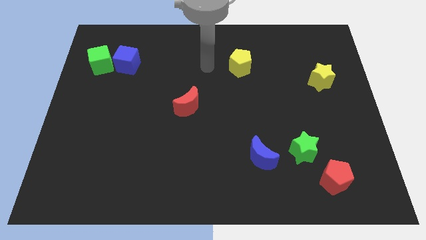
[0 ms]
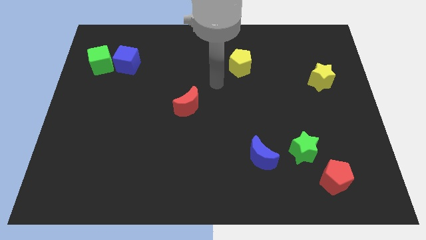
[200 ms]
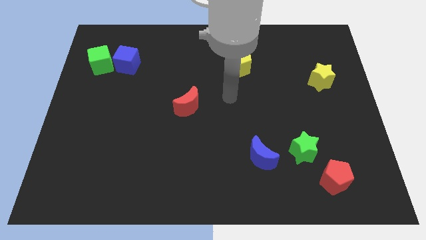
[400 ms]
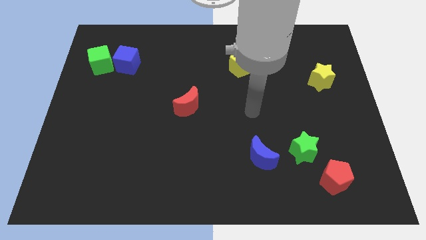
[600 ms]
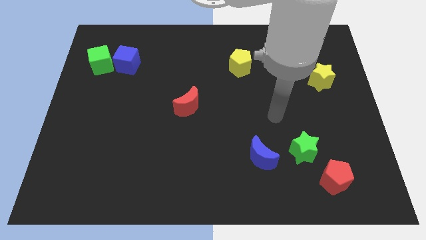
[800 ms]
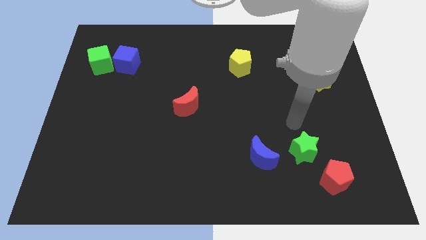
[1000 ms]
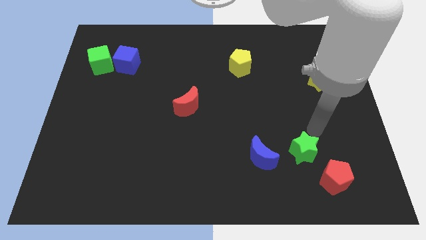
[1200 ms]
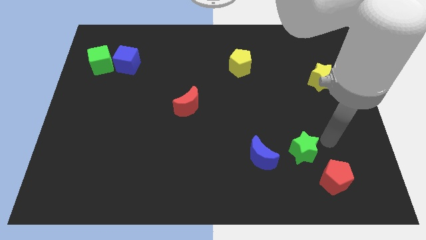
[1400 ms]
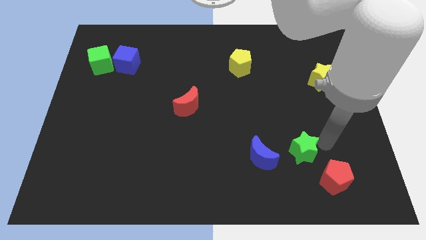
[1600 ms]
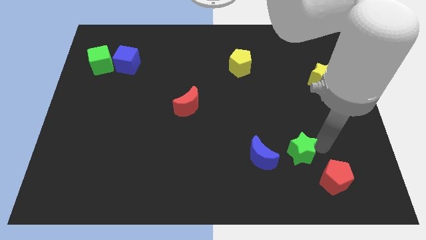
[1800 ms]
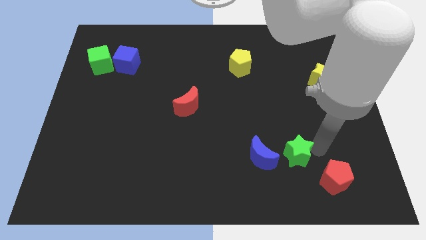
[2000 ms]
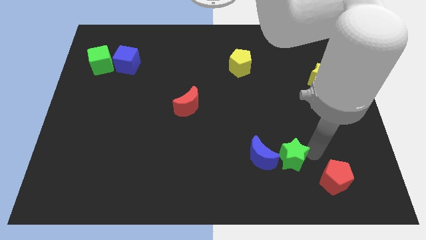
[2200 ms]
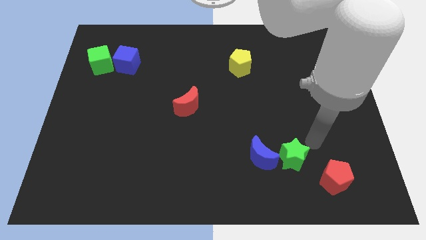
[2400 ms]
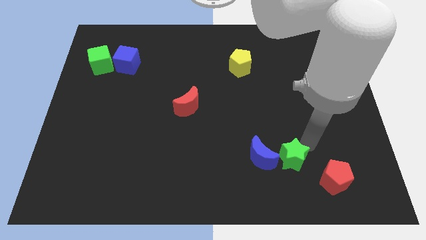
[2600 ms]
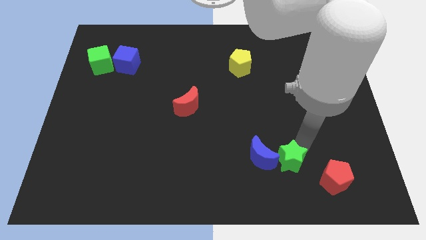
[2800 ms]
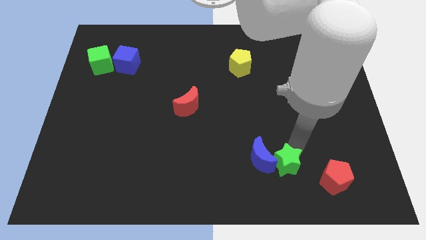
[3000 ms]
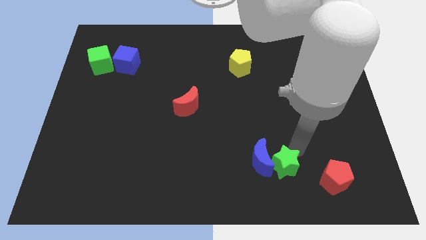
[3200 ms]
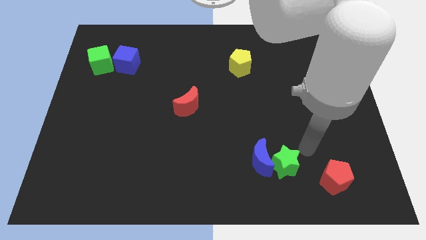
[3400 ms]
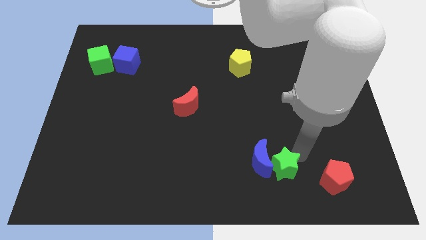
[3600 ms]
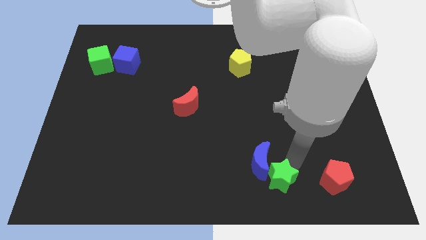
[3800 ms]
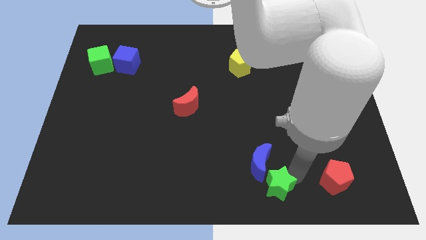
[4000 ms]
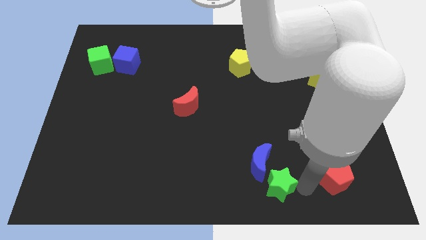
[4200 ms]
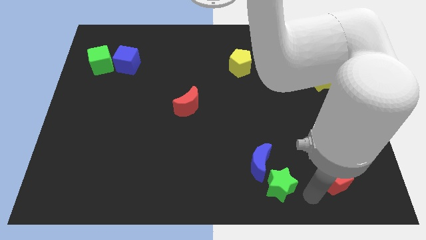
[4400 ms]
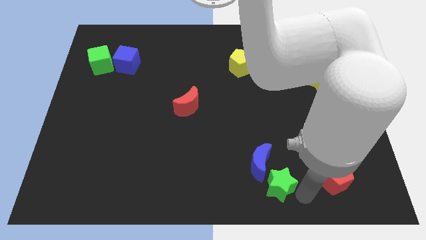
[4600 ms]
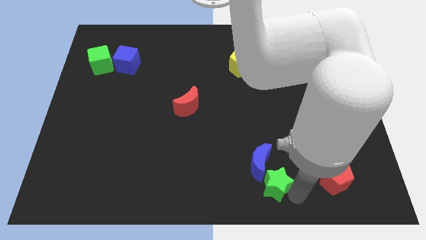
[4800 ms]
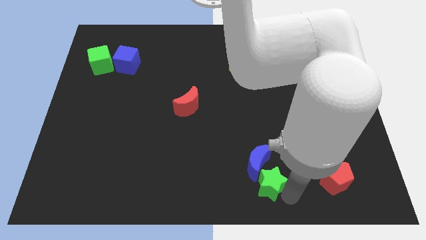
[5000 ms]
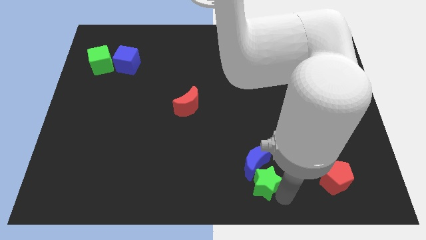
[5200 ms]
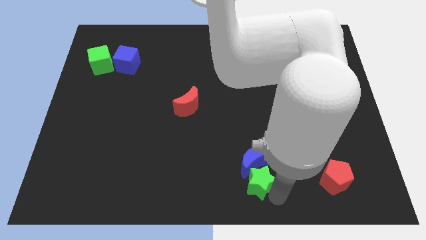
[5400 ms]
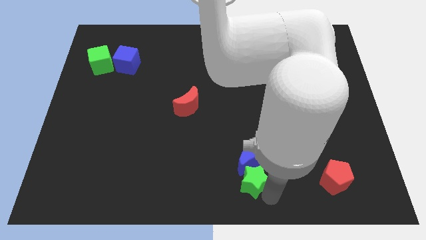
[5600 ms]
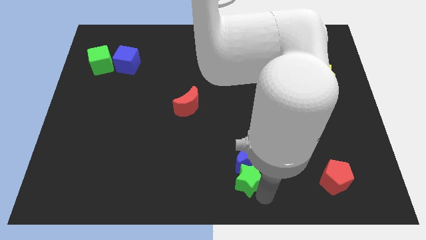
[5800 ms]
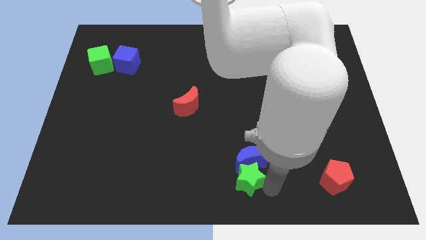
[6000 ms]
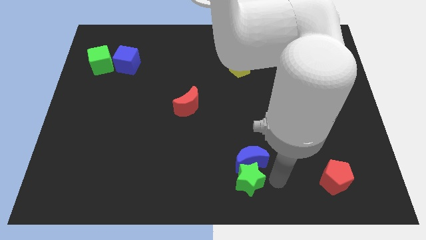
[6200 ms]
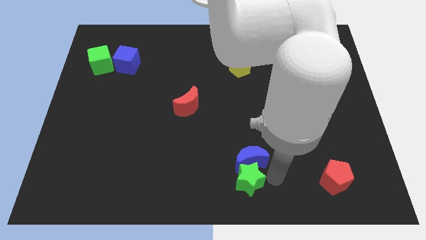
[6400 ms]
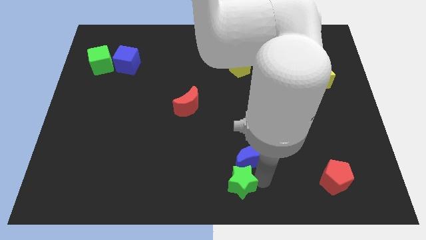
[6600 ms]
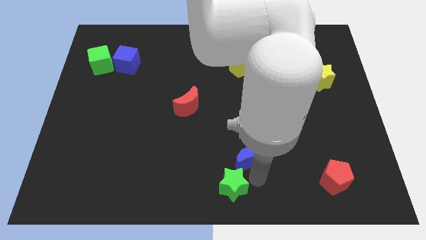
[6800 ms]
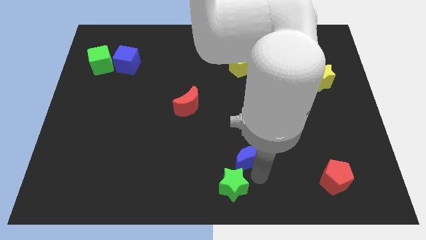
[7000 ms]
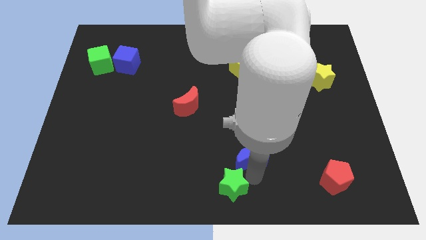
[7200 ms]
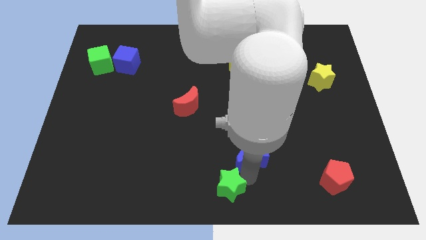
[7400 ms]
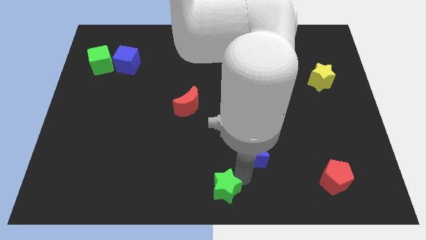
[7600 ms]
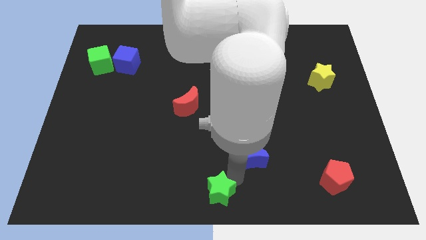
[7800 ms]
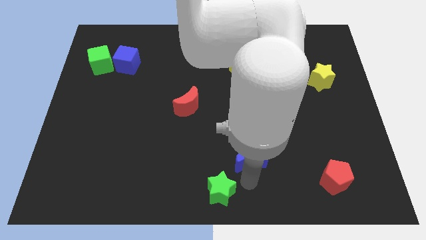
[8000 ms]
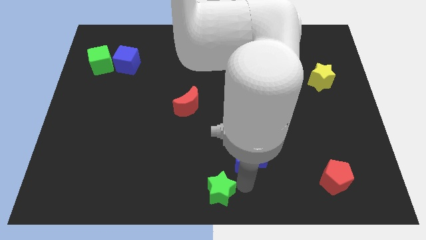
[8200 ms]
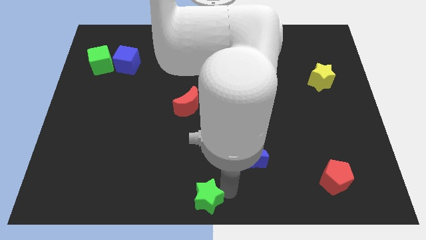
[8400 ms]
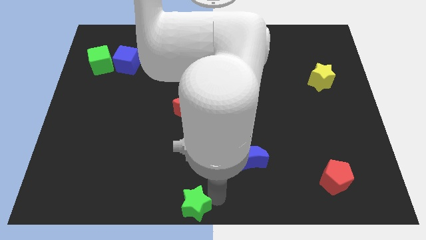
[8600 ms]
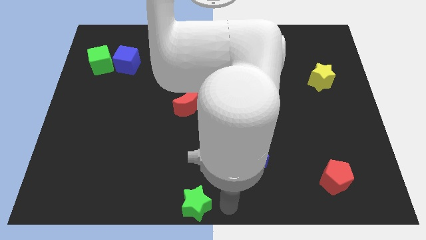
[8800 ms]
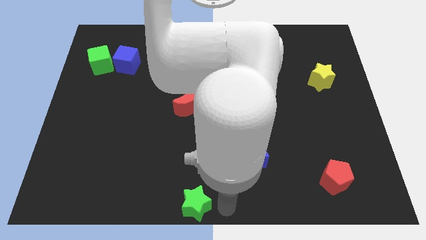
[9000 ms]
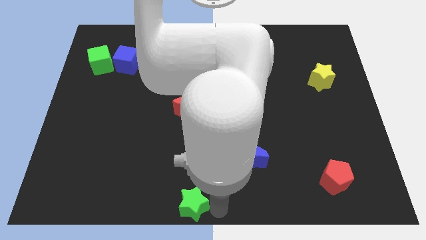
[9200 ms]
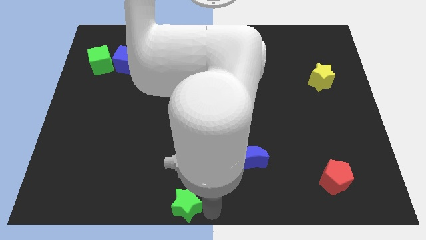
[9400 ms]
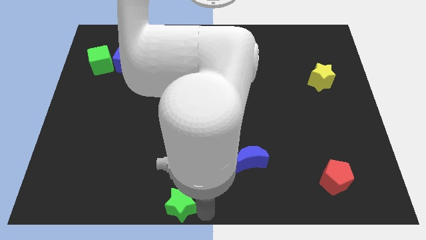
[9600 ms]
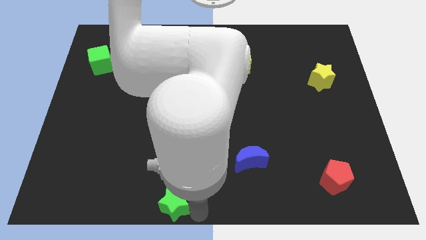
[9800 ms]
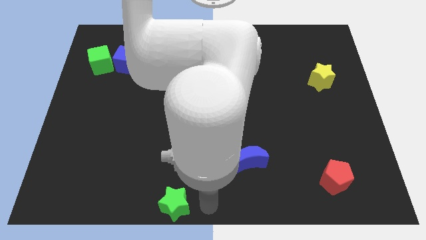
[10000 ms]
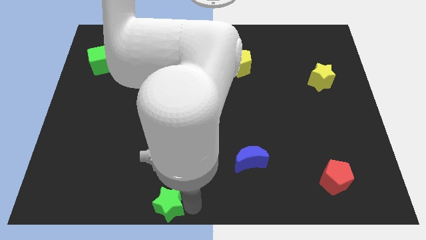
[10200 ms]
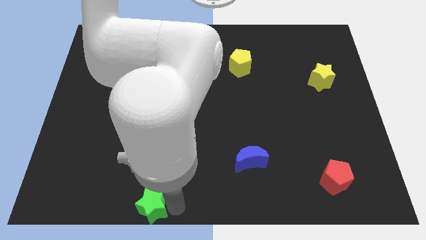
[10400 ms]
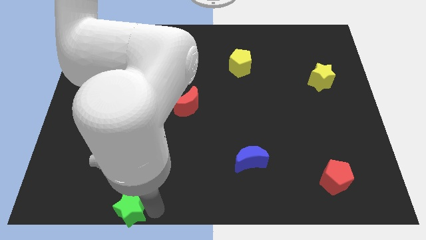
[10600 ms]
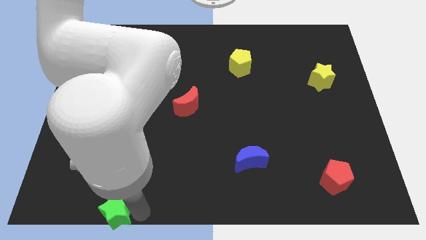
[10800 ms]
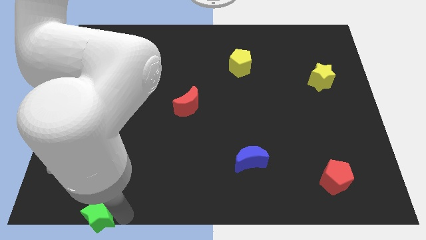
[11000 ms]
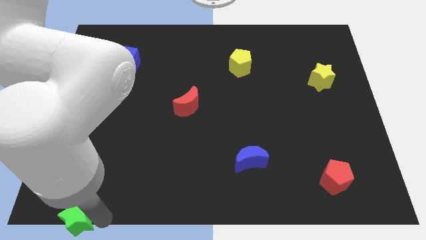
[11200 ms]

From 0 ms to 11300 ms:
slide the green star to the lower left corner

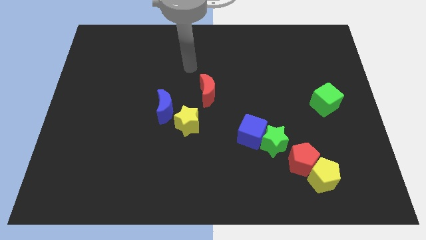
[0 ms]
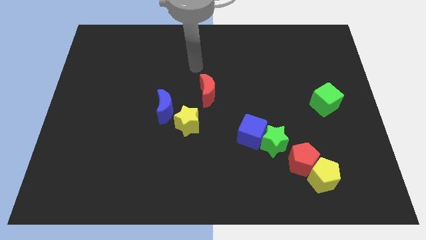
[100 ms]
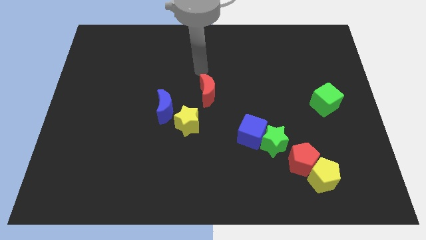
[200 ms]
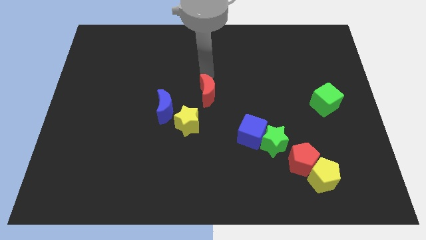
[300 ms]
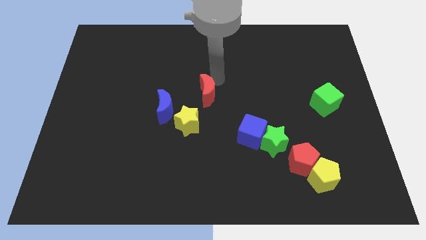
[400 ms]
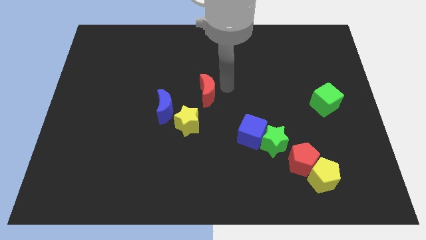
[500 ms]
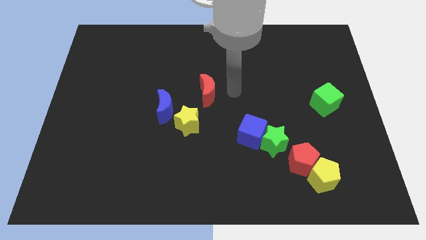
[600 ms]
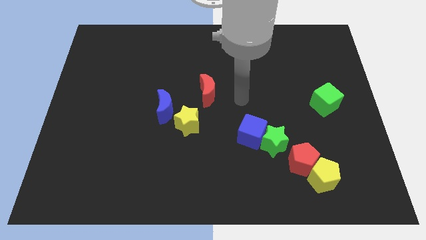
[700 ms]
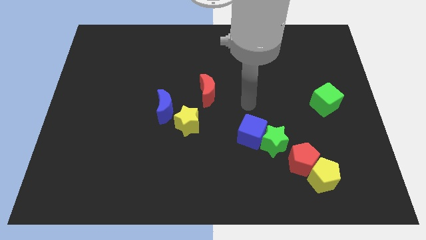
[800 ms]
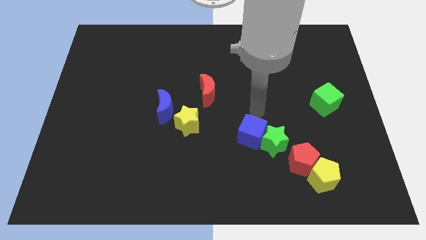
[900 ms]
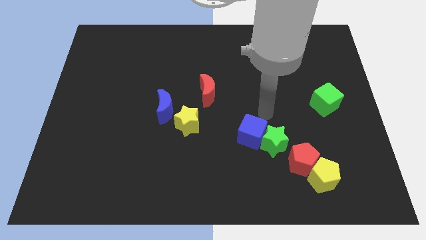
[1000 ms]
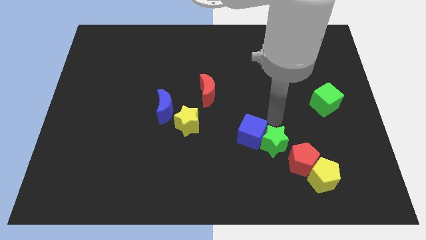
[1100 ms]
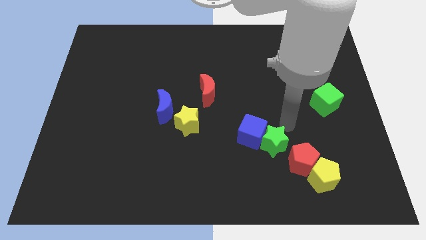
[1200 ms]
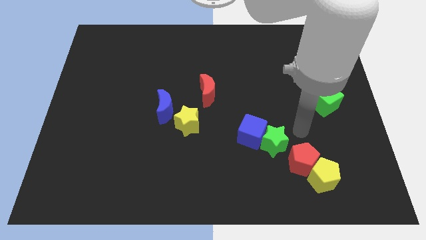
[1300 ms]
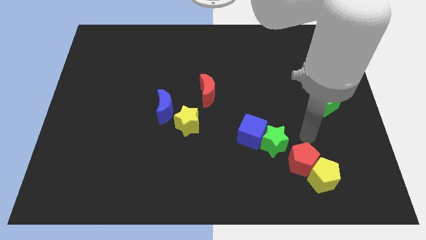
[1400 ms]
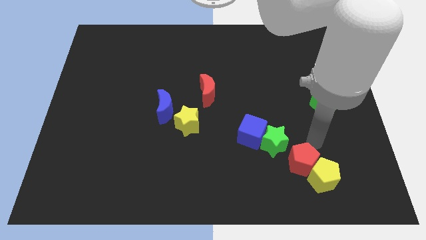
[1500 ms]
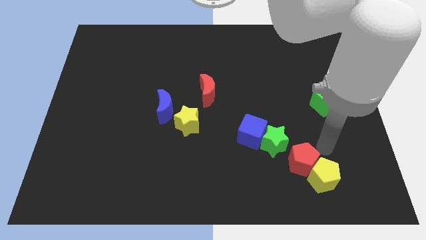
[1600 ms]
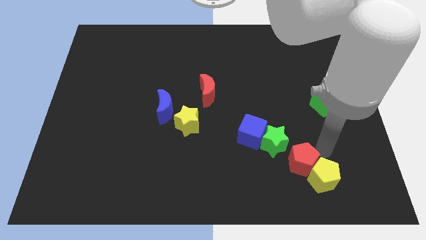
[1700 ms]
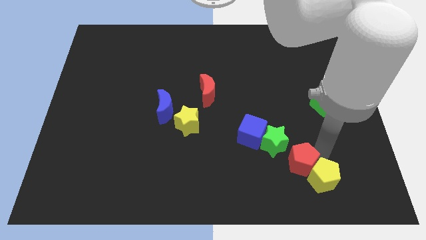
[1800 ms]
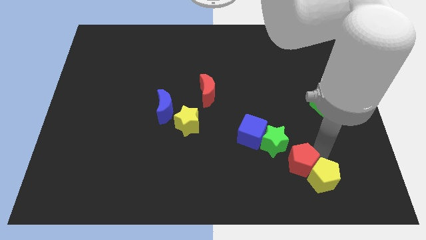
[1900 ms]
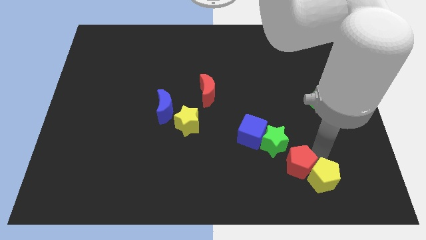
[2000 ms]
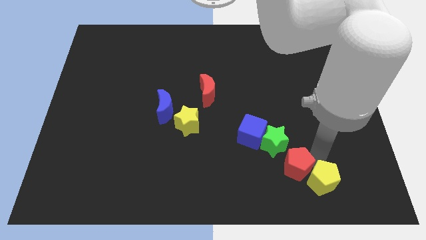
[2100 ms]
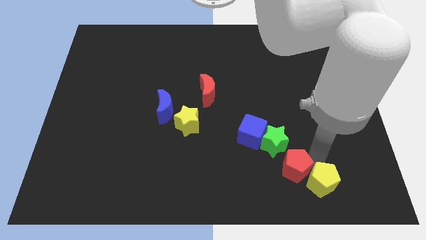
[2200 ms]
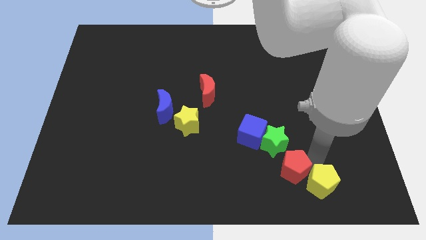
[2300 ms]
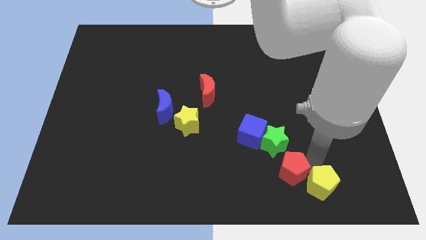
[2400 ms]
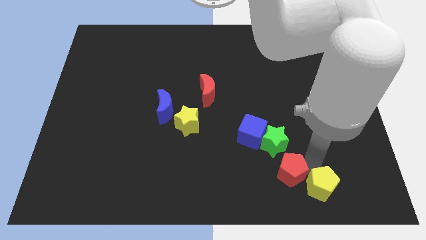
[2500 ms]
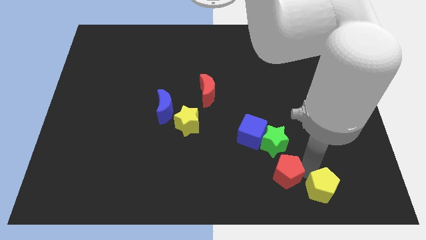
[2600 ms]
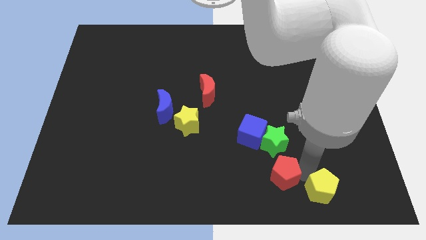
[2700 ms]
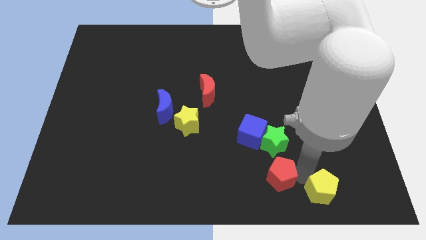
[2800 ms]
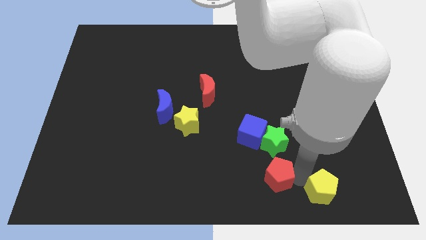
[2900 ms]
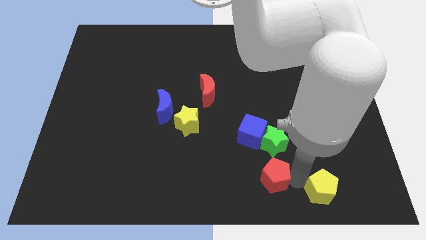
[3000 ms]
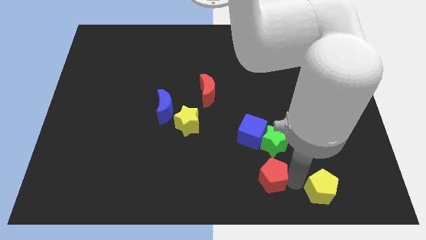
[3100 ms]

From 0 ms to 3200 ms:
push the red pentagon to the bottom side
